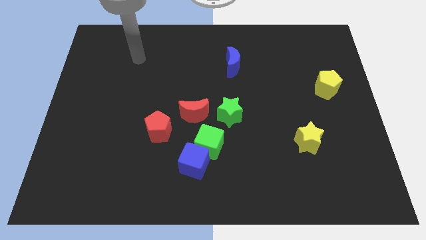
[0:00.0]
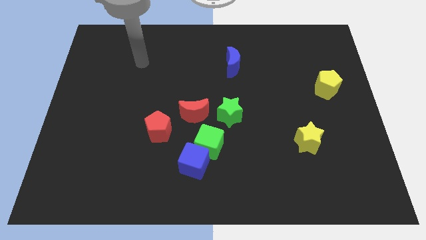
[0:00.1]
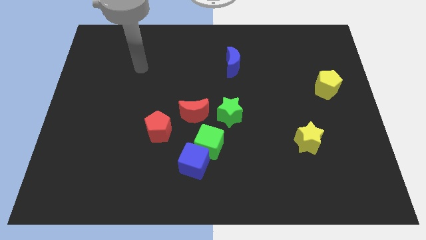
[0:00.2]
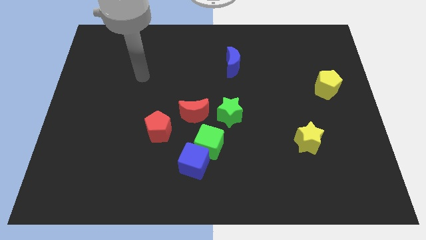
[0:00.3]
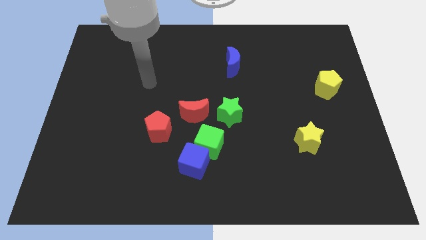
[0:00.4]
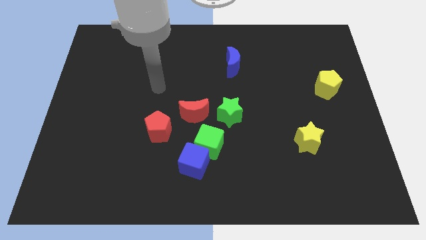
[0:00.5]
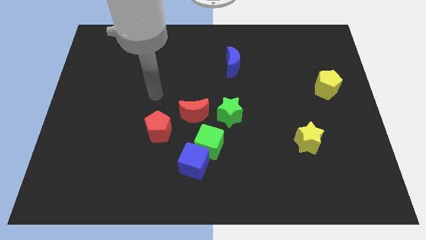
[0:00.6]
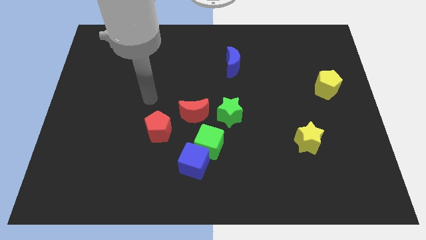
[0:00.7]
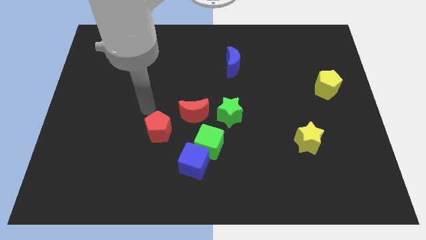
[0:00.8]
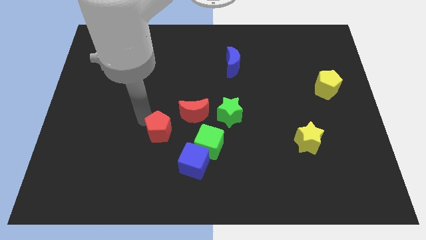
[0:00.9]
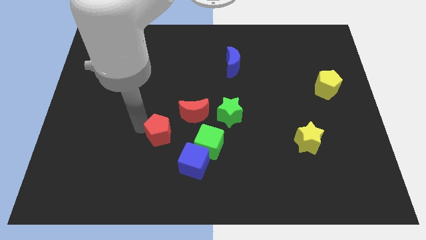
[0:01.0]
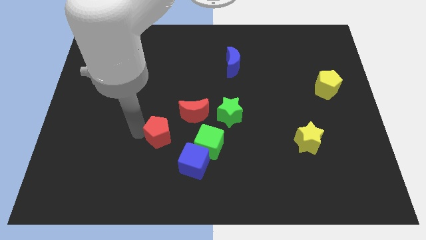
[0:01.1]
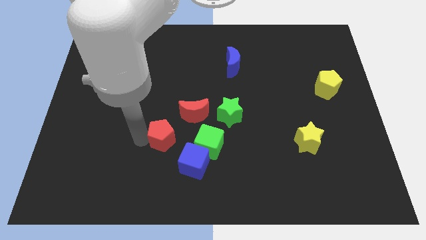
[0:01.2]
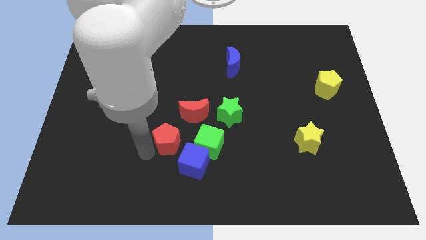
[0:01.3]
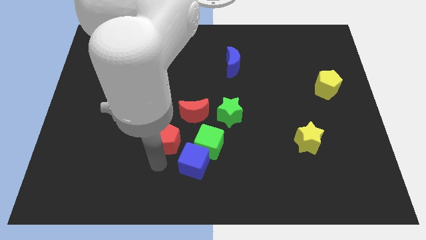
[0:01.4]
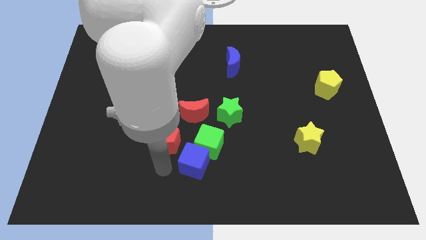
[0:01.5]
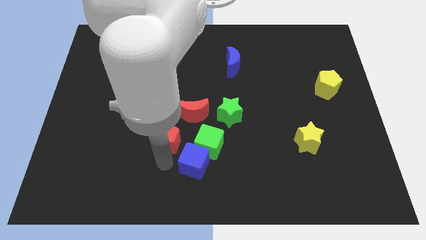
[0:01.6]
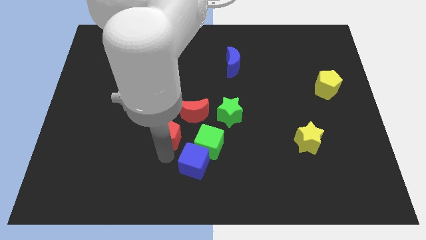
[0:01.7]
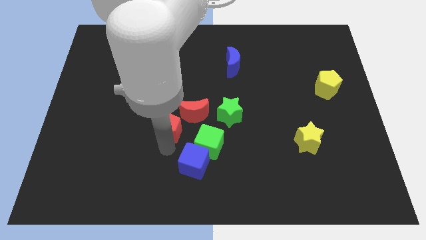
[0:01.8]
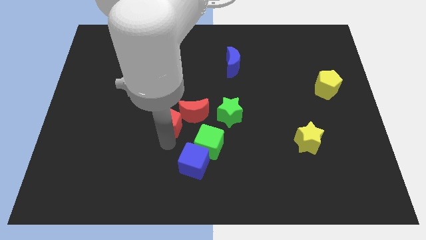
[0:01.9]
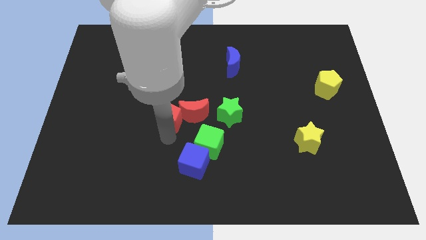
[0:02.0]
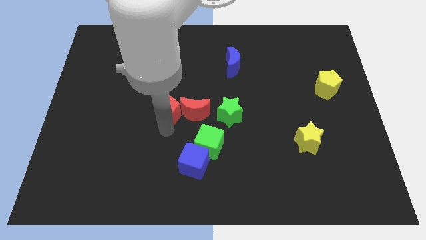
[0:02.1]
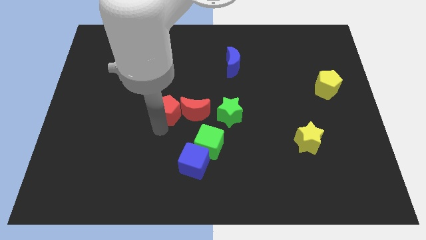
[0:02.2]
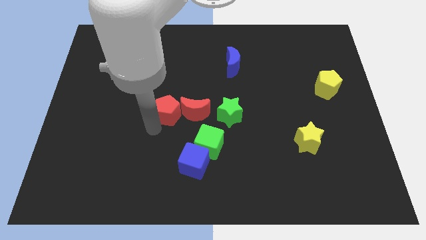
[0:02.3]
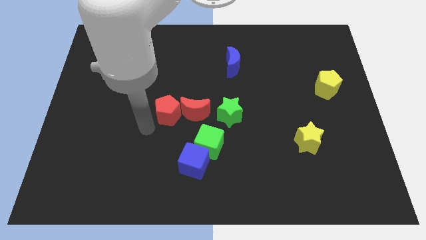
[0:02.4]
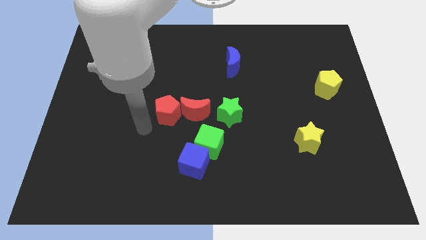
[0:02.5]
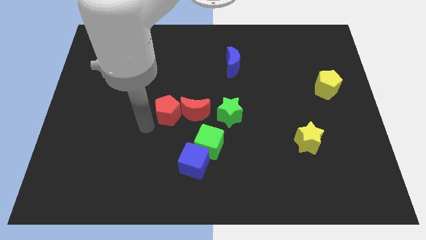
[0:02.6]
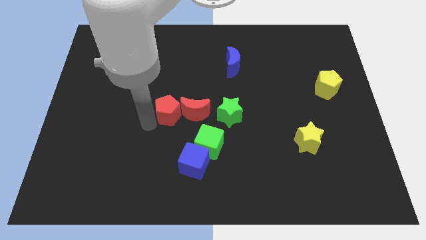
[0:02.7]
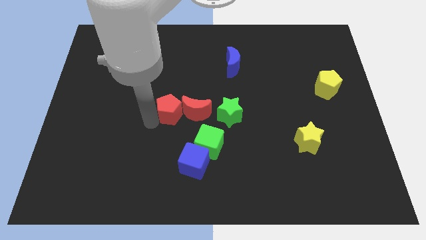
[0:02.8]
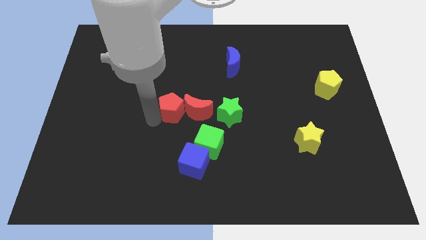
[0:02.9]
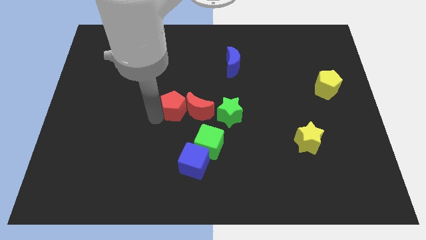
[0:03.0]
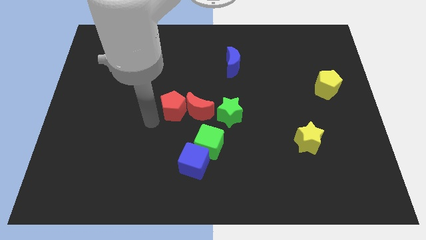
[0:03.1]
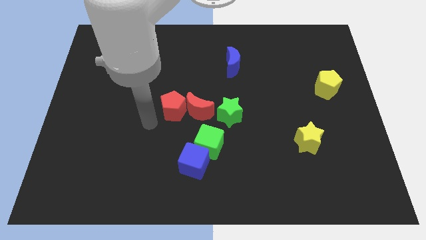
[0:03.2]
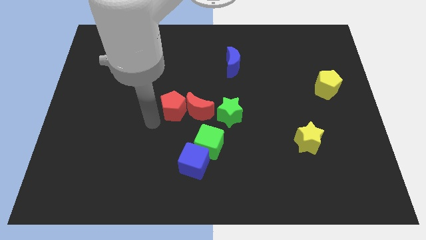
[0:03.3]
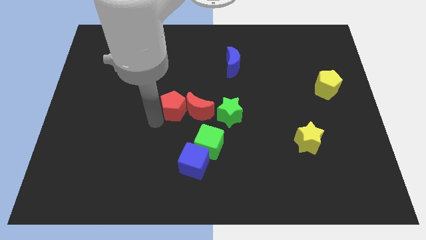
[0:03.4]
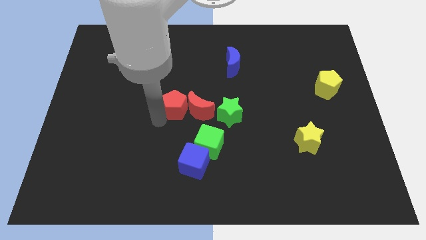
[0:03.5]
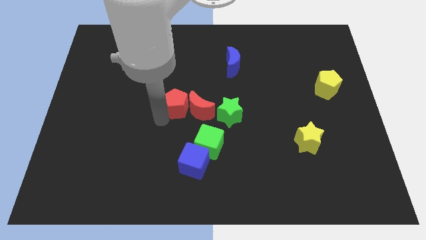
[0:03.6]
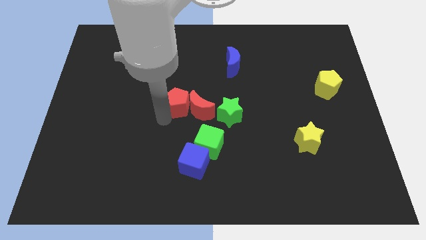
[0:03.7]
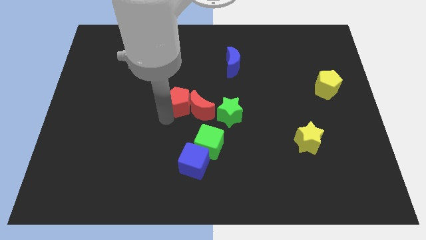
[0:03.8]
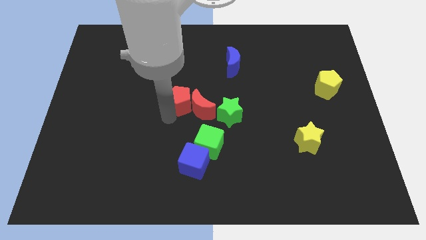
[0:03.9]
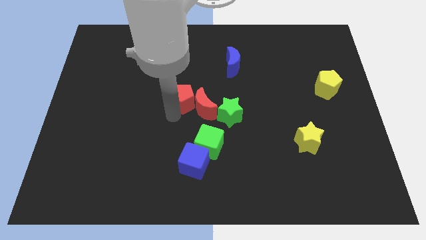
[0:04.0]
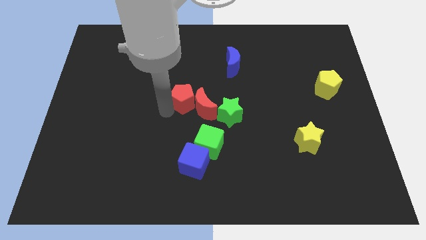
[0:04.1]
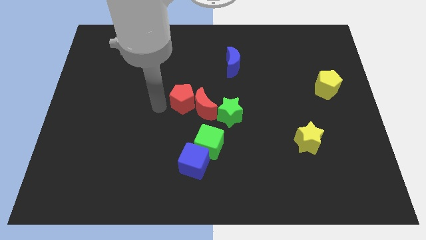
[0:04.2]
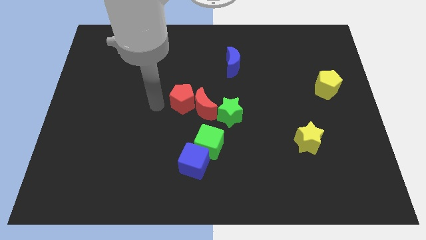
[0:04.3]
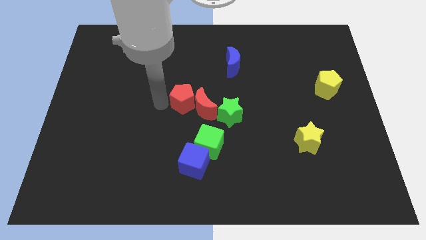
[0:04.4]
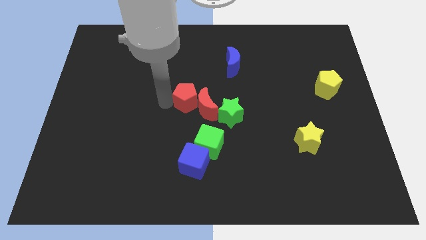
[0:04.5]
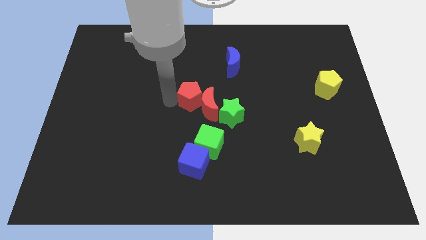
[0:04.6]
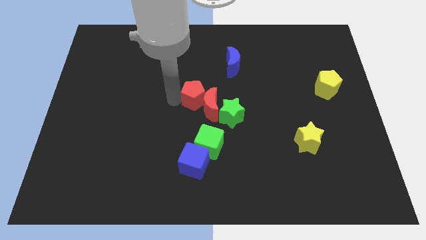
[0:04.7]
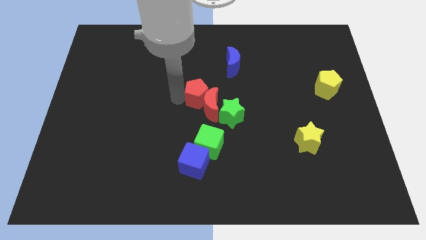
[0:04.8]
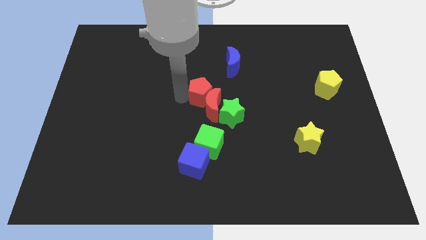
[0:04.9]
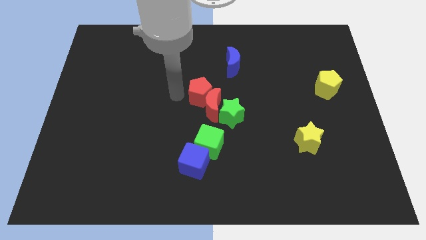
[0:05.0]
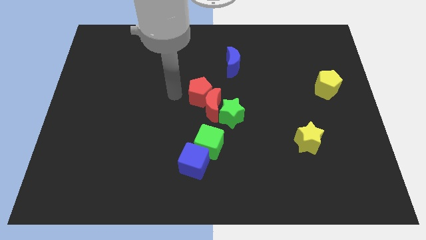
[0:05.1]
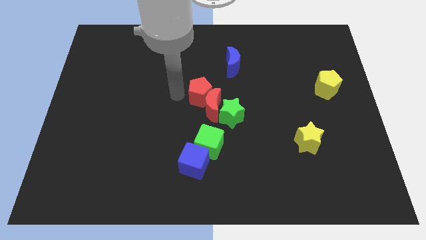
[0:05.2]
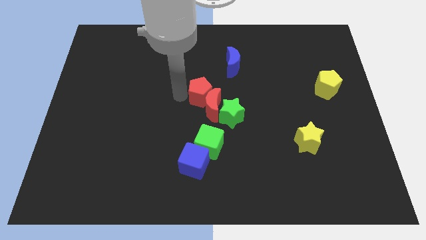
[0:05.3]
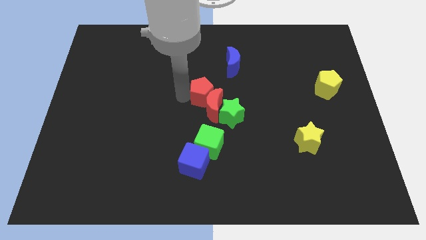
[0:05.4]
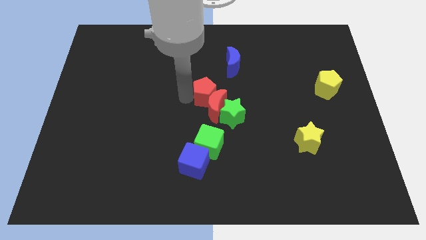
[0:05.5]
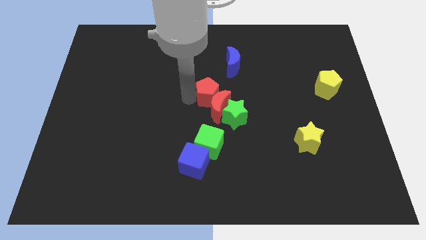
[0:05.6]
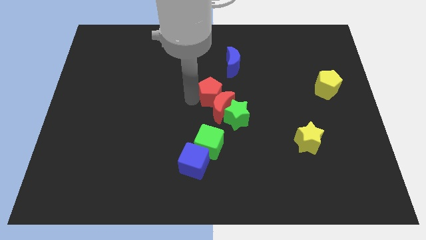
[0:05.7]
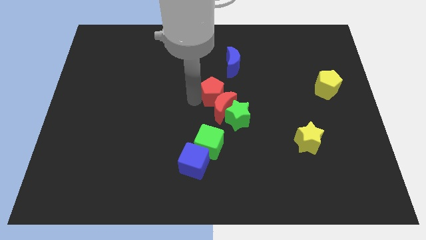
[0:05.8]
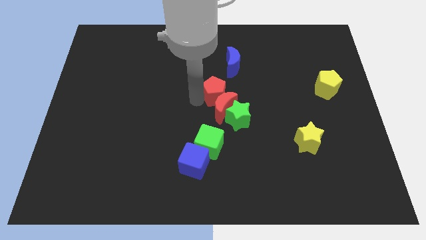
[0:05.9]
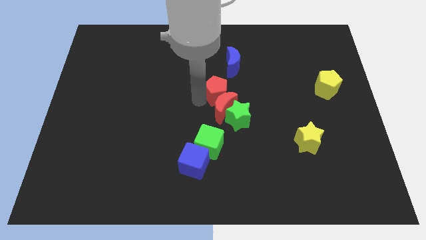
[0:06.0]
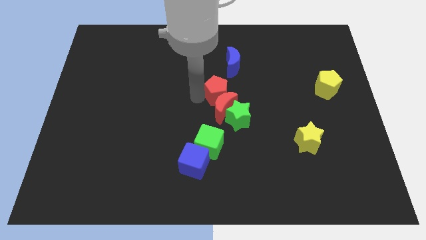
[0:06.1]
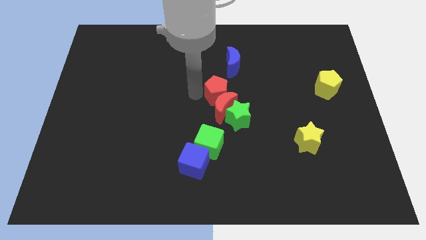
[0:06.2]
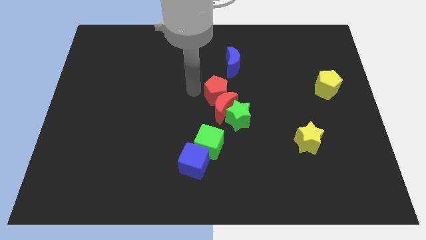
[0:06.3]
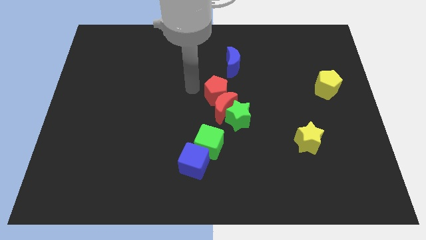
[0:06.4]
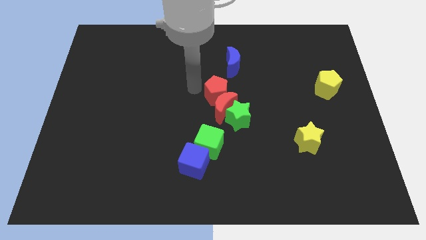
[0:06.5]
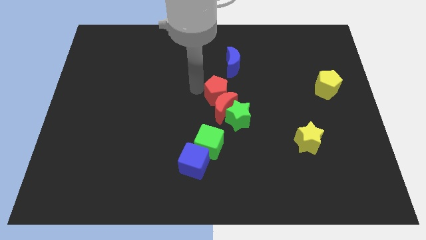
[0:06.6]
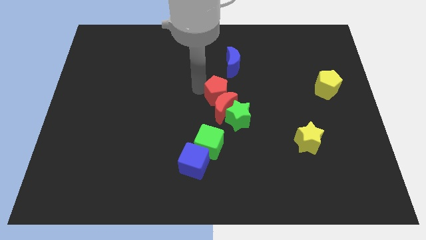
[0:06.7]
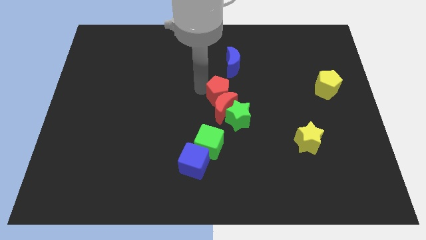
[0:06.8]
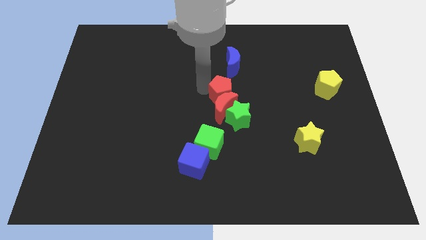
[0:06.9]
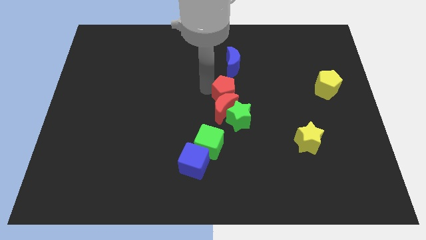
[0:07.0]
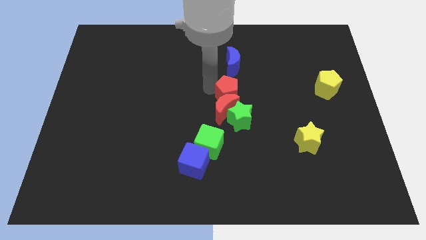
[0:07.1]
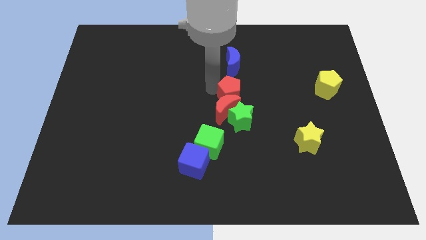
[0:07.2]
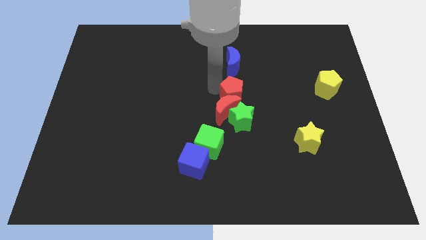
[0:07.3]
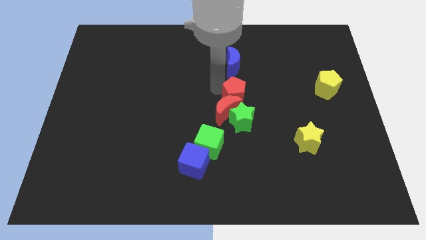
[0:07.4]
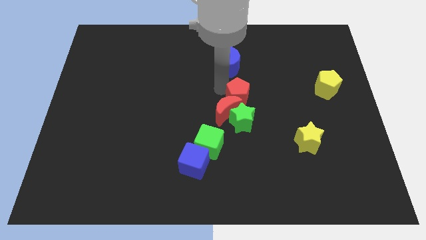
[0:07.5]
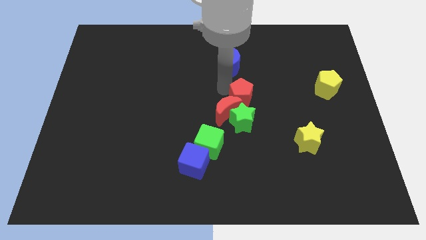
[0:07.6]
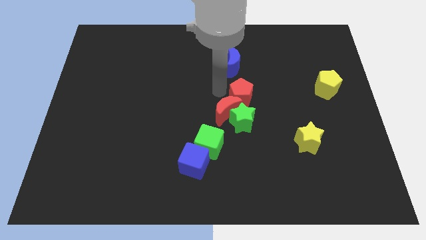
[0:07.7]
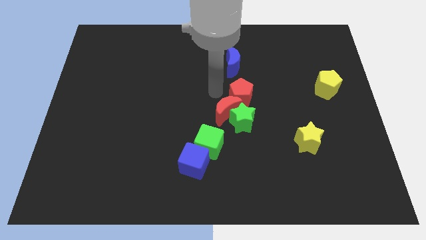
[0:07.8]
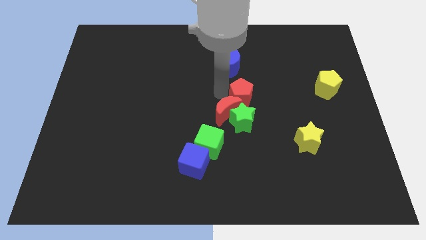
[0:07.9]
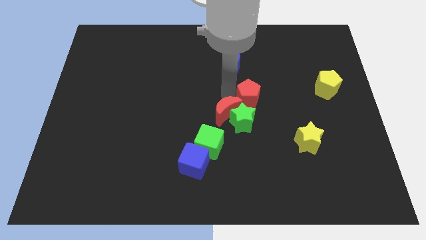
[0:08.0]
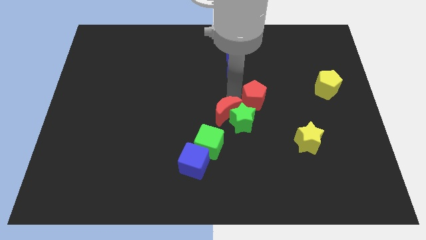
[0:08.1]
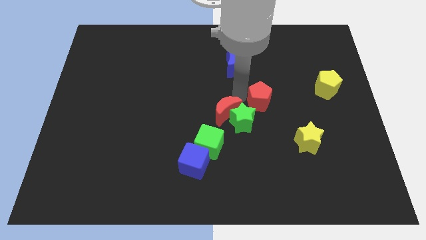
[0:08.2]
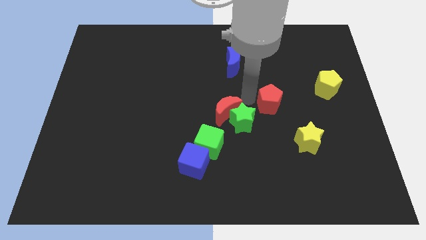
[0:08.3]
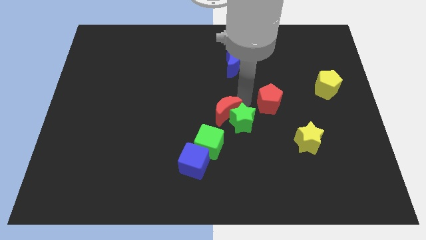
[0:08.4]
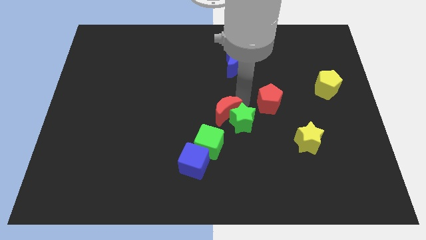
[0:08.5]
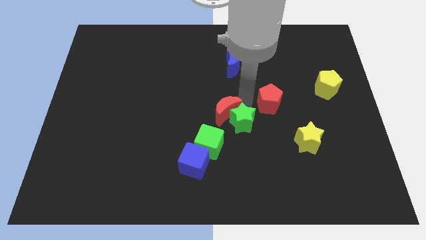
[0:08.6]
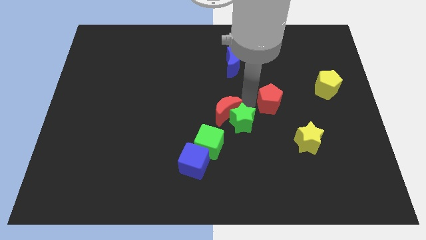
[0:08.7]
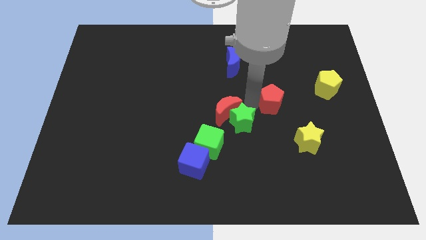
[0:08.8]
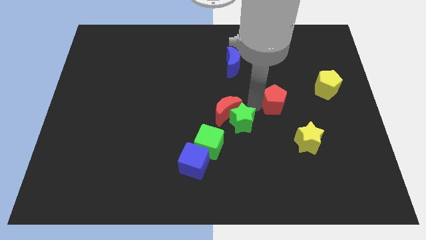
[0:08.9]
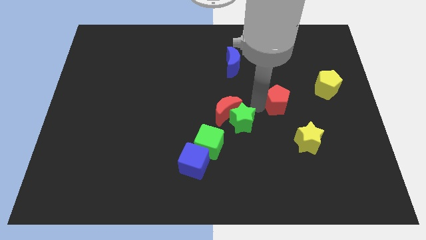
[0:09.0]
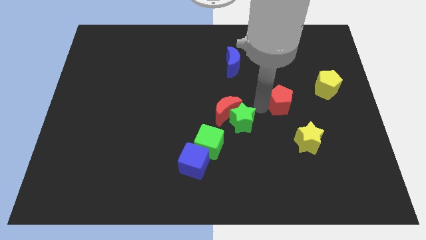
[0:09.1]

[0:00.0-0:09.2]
move the red pentagon to the top side of the yellow star
